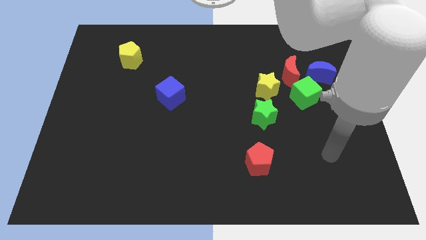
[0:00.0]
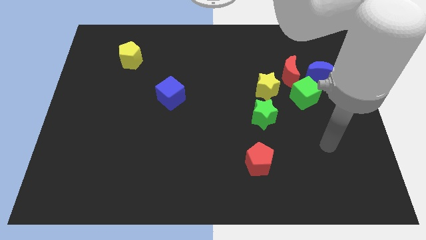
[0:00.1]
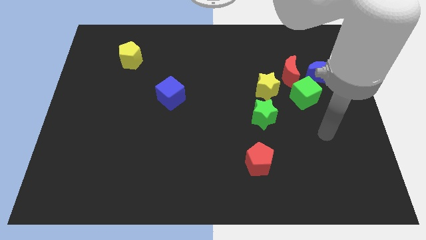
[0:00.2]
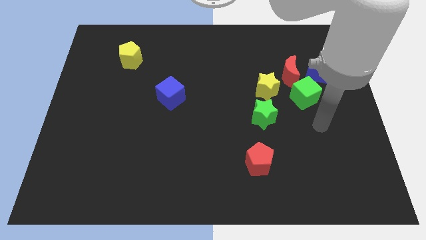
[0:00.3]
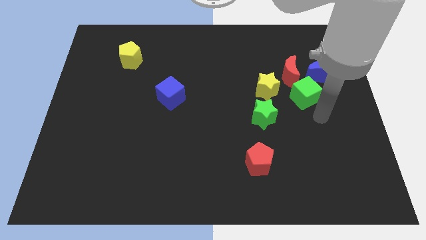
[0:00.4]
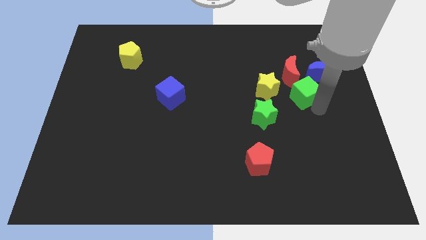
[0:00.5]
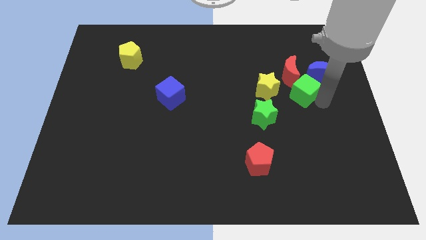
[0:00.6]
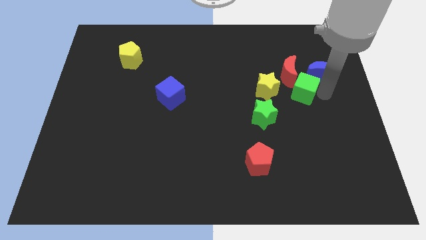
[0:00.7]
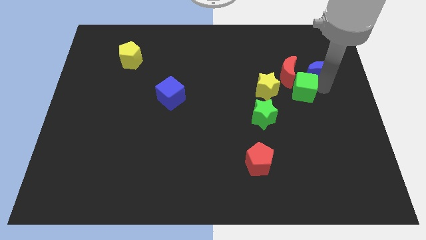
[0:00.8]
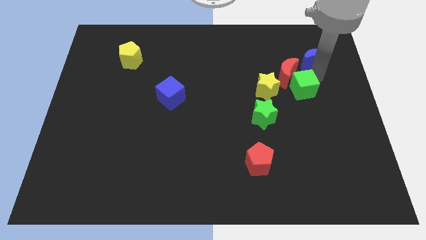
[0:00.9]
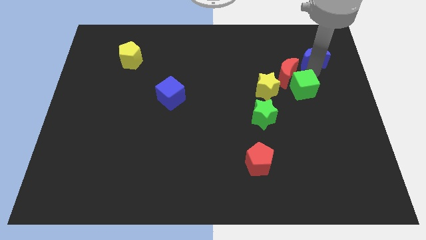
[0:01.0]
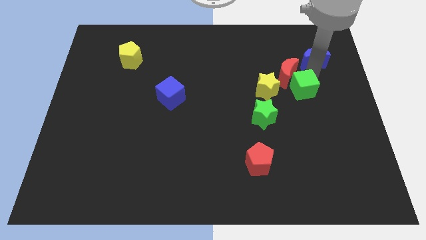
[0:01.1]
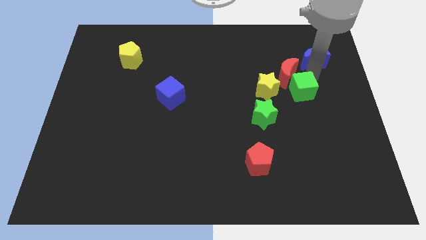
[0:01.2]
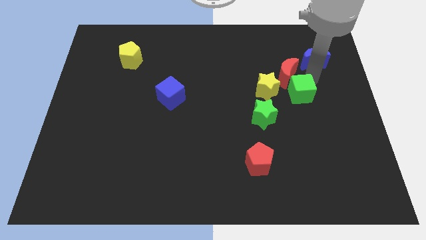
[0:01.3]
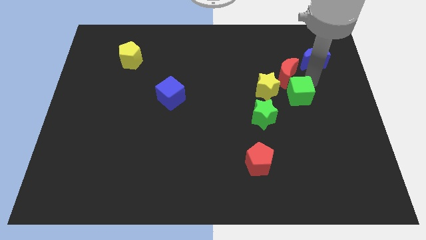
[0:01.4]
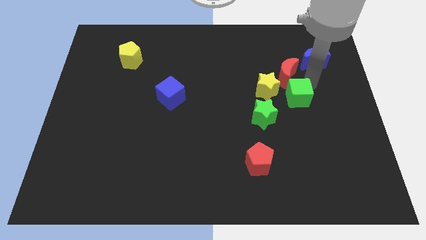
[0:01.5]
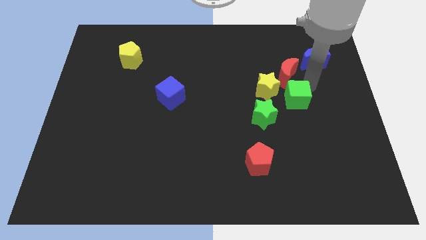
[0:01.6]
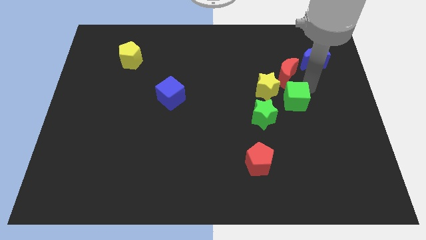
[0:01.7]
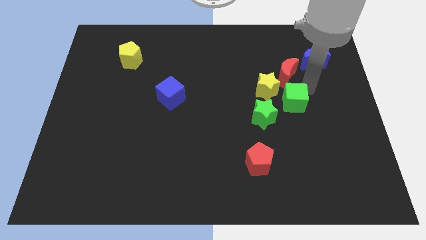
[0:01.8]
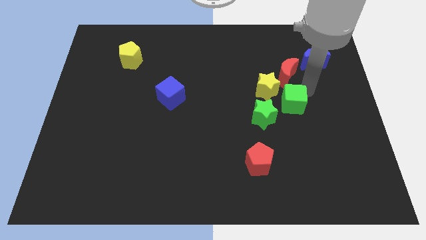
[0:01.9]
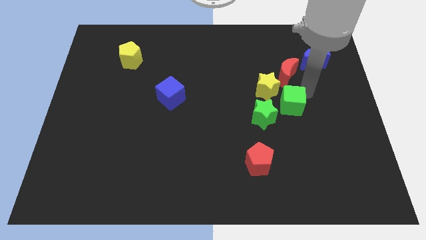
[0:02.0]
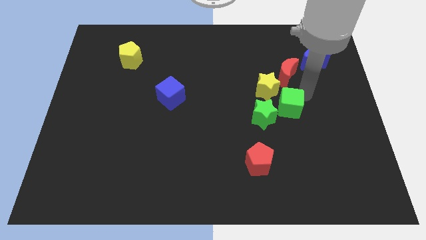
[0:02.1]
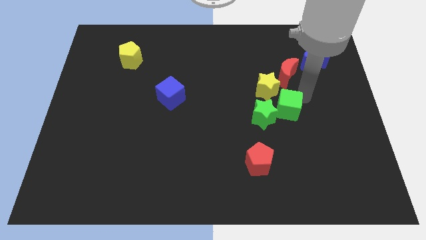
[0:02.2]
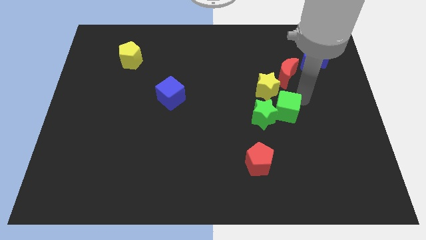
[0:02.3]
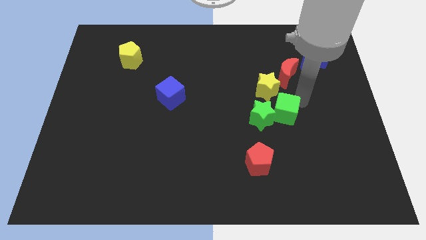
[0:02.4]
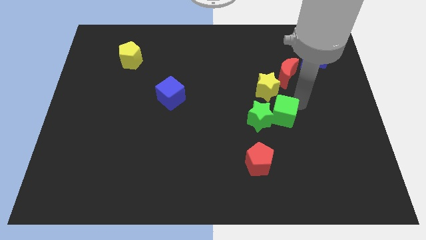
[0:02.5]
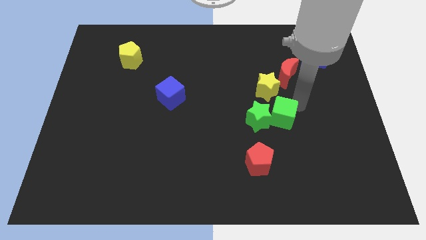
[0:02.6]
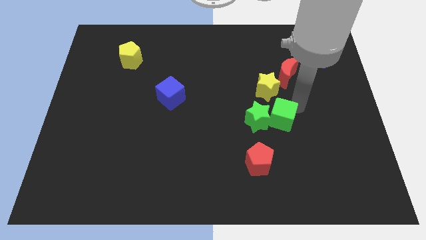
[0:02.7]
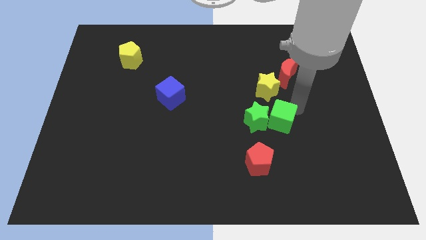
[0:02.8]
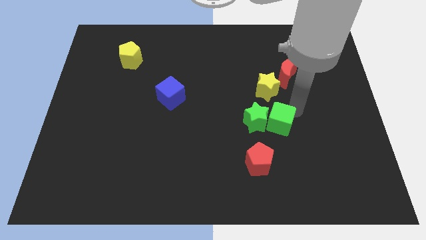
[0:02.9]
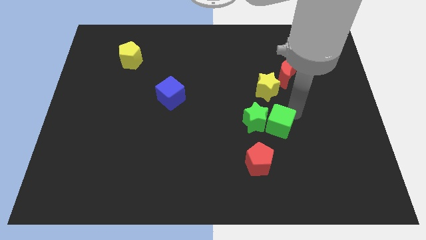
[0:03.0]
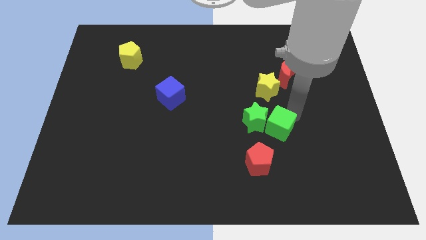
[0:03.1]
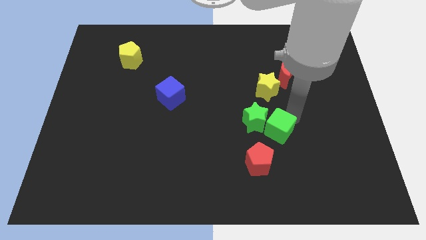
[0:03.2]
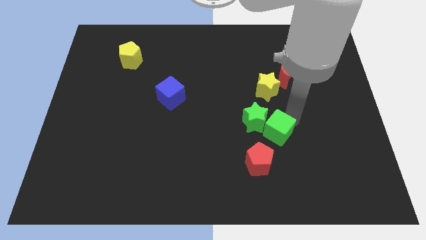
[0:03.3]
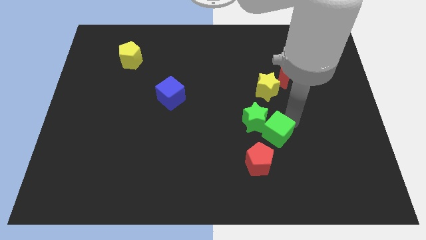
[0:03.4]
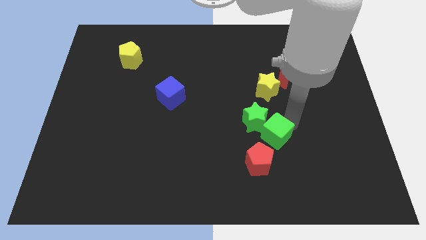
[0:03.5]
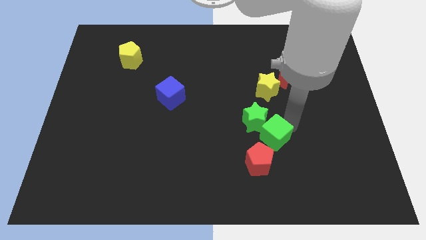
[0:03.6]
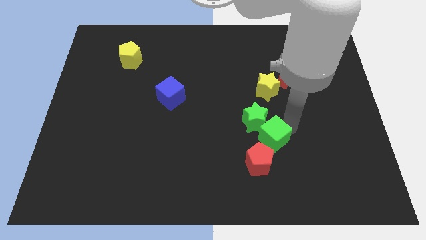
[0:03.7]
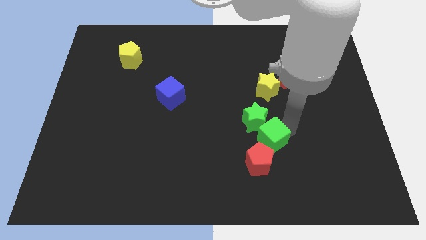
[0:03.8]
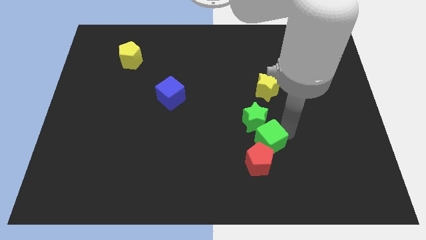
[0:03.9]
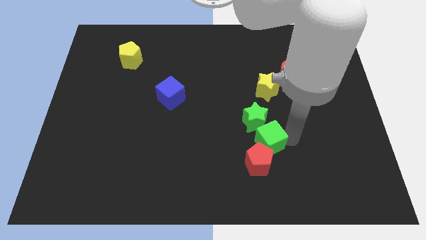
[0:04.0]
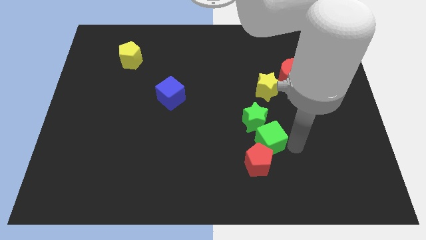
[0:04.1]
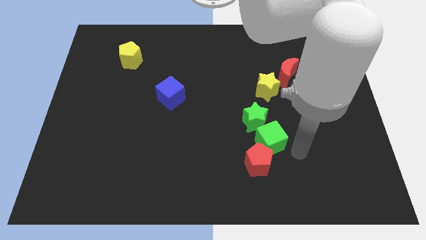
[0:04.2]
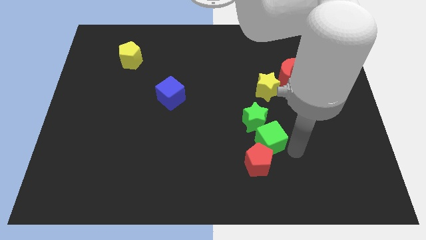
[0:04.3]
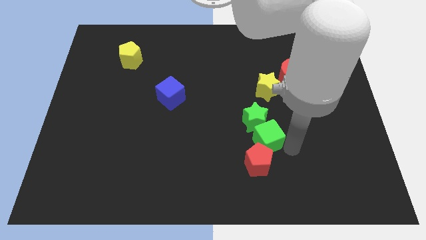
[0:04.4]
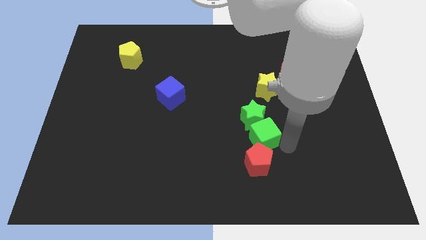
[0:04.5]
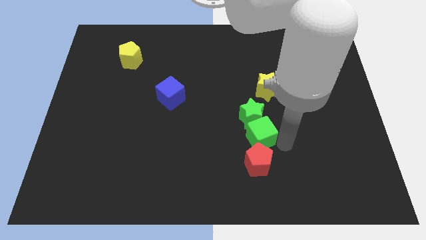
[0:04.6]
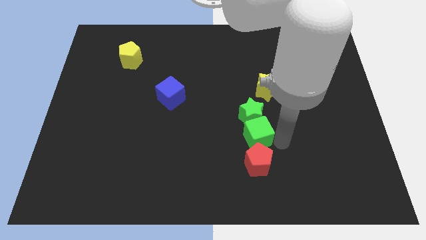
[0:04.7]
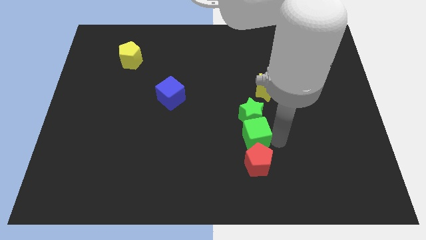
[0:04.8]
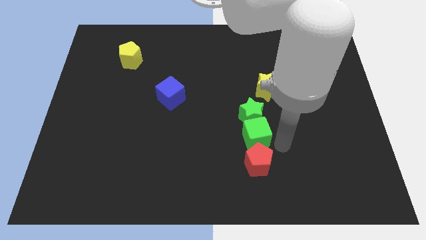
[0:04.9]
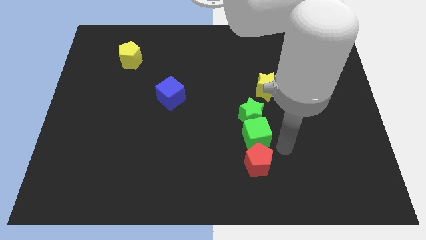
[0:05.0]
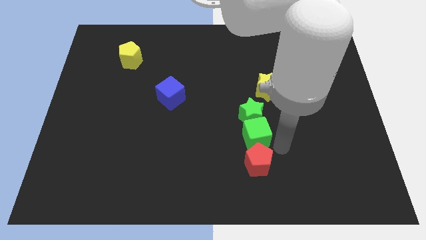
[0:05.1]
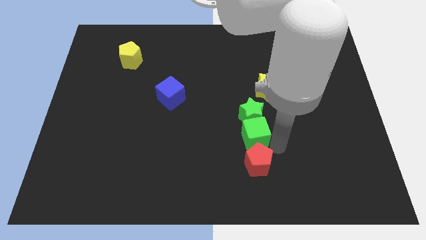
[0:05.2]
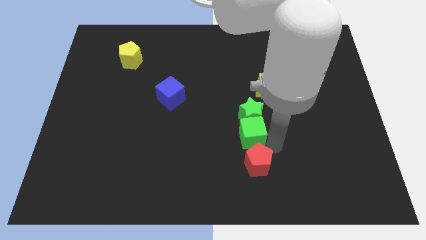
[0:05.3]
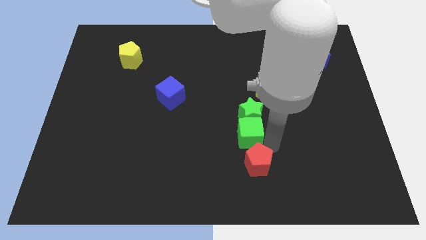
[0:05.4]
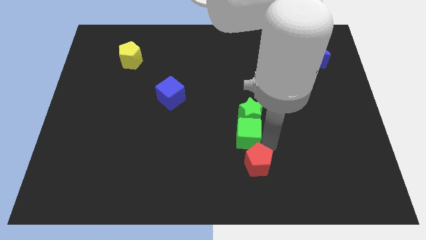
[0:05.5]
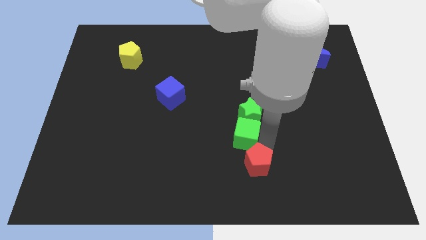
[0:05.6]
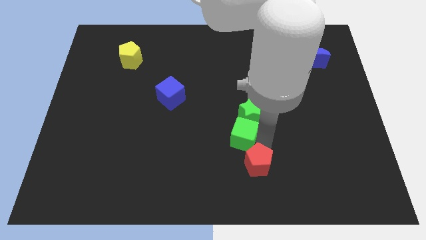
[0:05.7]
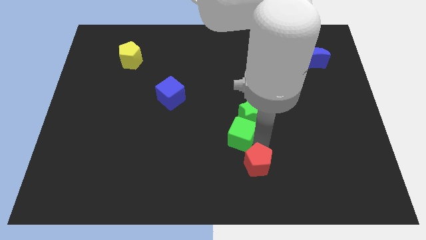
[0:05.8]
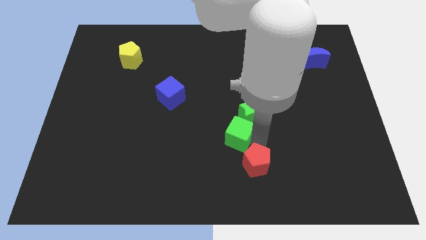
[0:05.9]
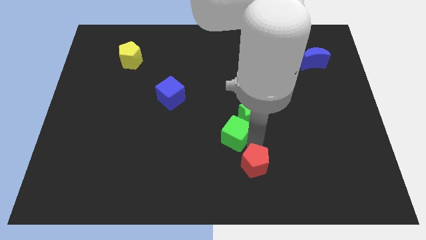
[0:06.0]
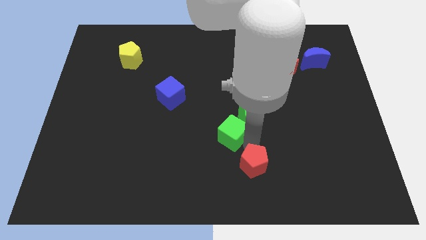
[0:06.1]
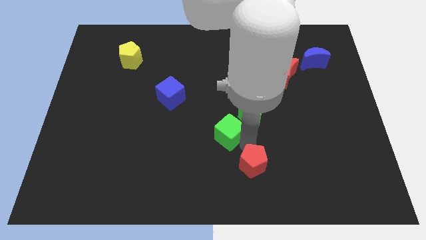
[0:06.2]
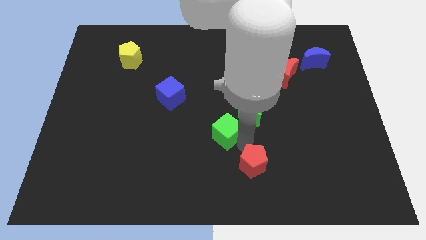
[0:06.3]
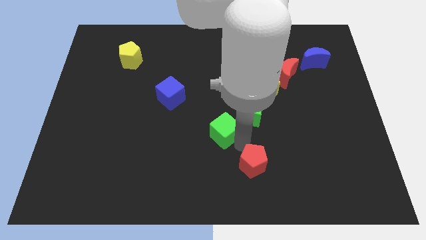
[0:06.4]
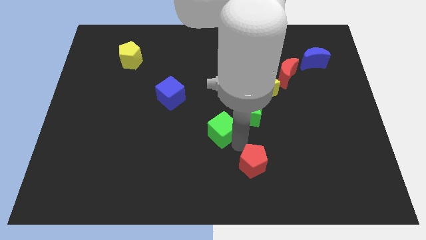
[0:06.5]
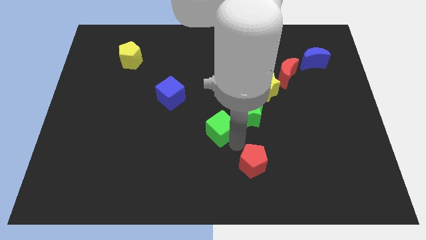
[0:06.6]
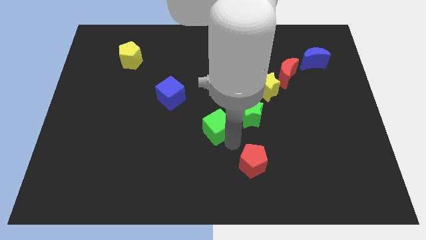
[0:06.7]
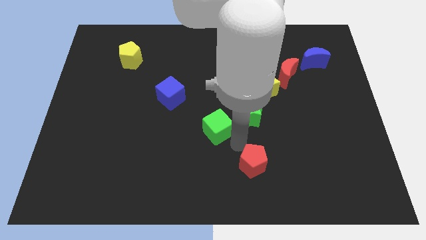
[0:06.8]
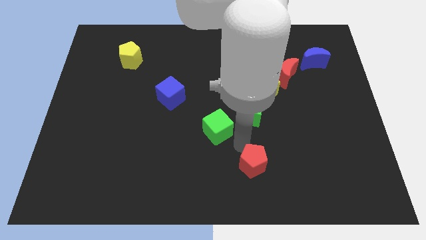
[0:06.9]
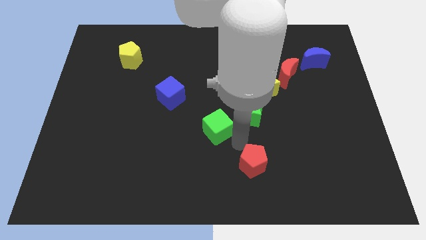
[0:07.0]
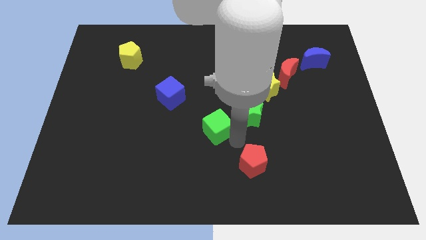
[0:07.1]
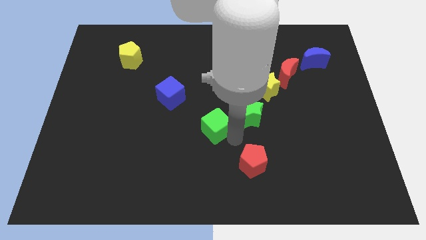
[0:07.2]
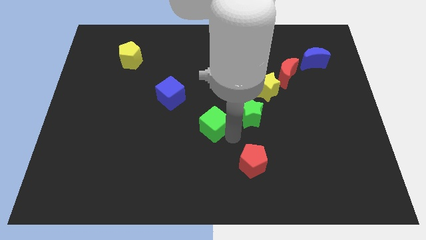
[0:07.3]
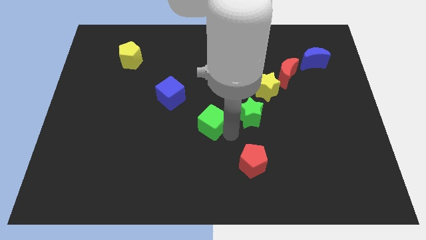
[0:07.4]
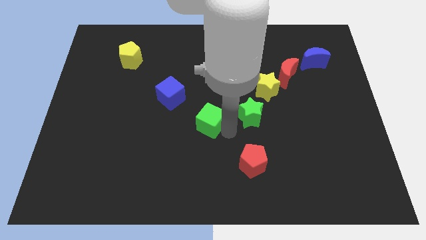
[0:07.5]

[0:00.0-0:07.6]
move the green cube to the bottom right side of the blue cube

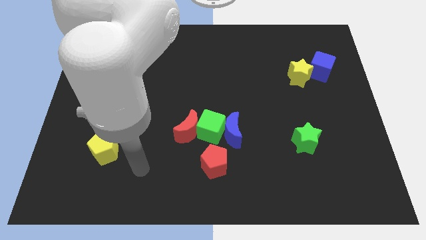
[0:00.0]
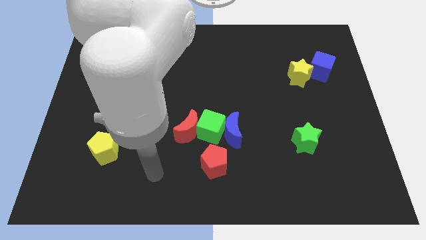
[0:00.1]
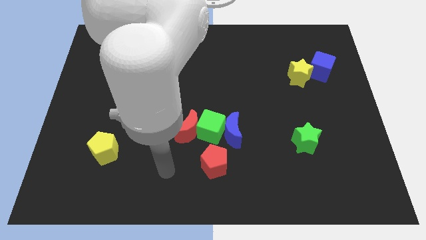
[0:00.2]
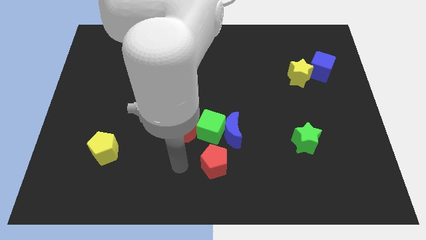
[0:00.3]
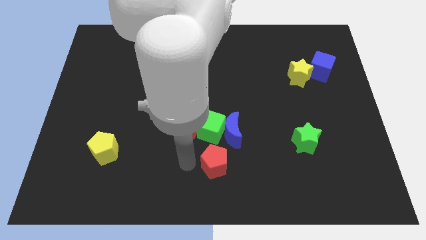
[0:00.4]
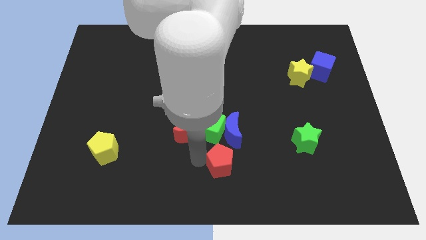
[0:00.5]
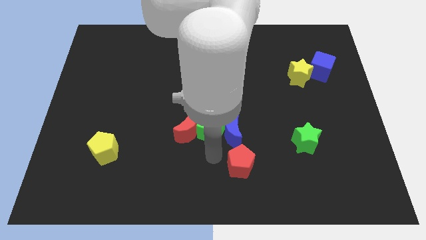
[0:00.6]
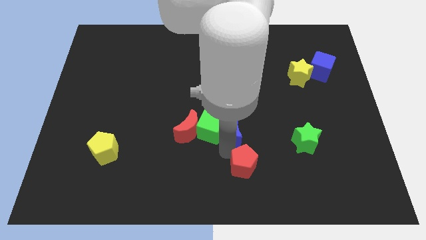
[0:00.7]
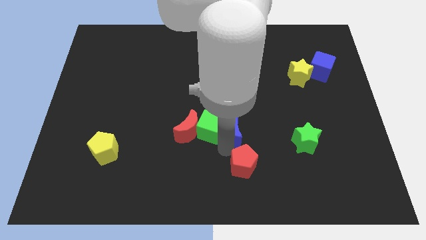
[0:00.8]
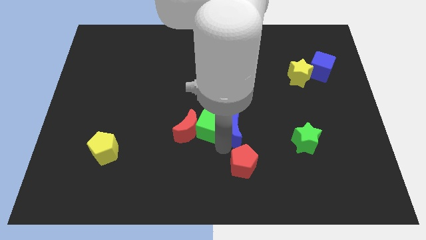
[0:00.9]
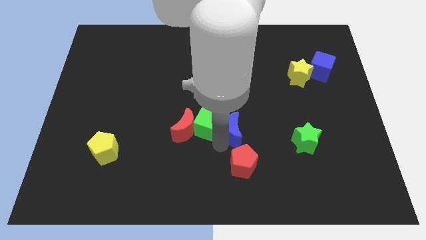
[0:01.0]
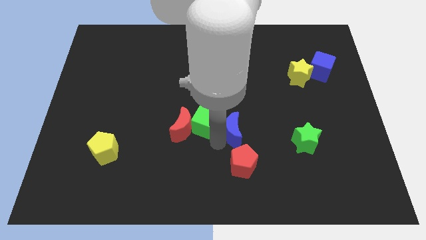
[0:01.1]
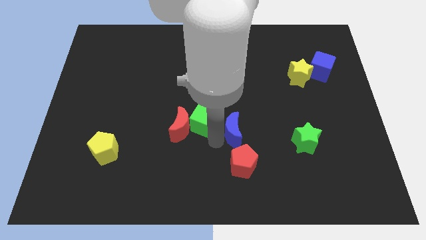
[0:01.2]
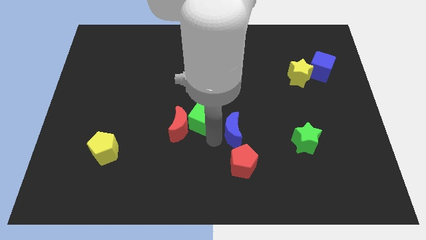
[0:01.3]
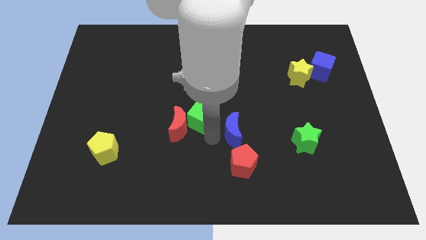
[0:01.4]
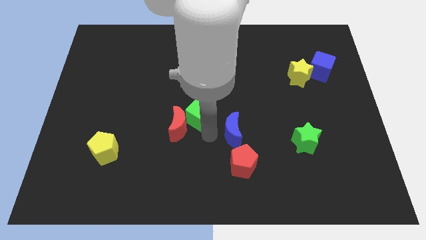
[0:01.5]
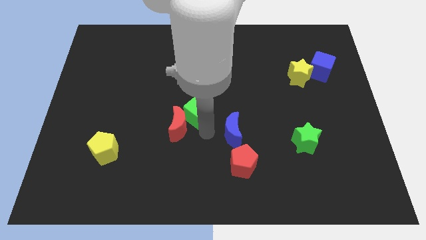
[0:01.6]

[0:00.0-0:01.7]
move the green cube to the top of the red moon
